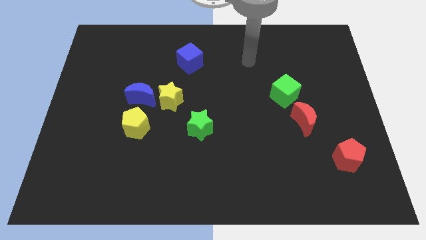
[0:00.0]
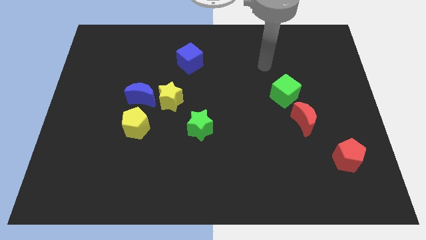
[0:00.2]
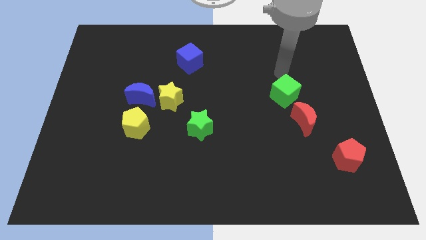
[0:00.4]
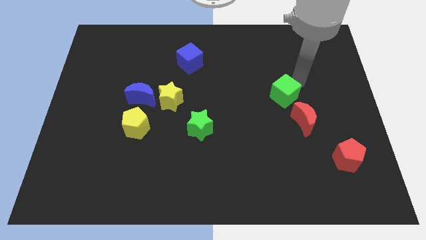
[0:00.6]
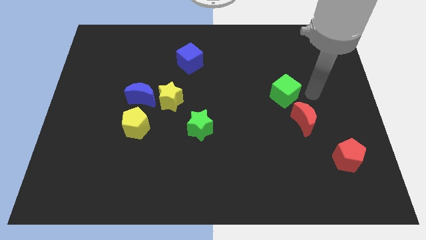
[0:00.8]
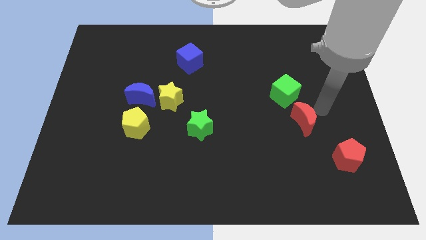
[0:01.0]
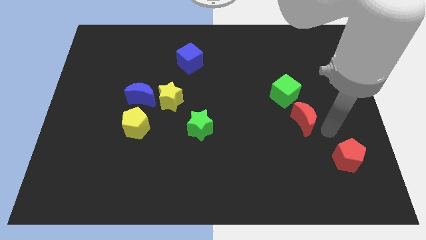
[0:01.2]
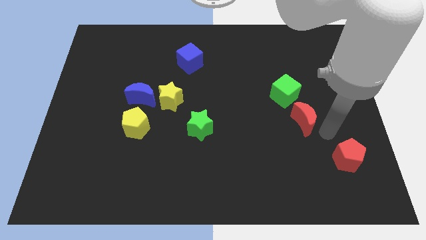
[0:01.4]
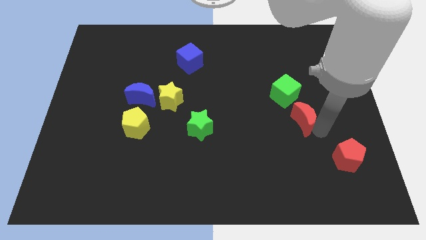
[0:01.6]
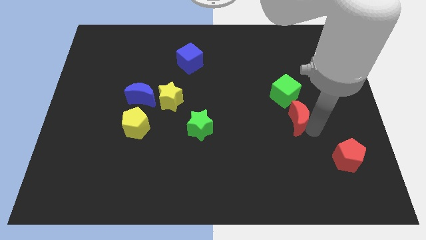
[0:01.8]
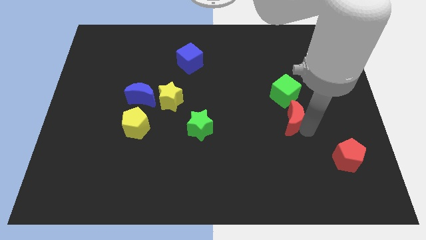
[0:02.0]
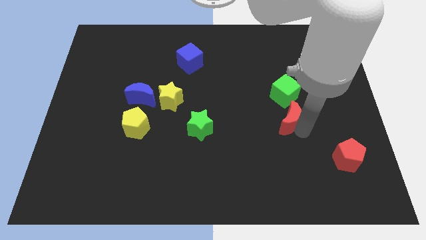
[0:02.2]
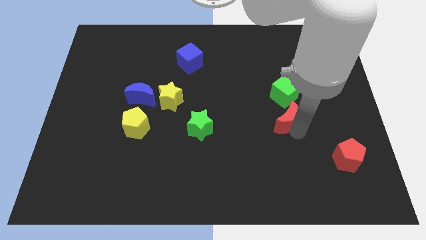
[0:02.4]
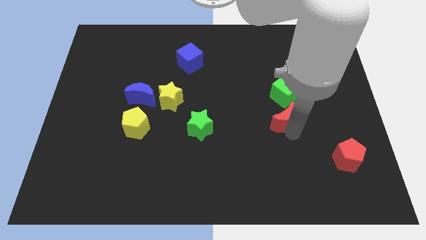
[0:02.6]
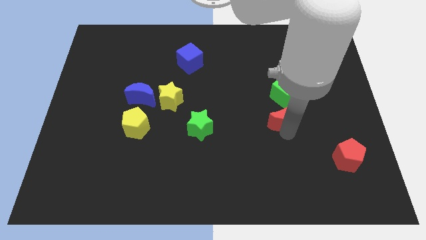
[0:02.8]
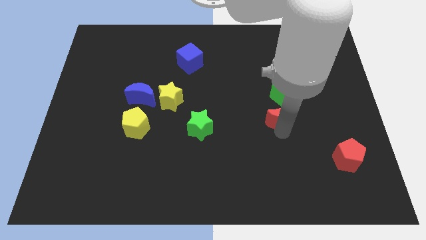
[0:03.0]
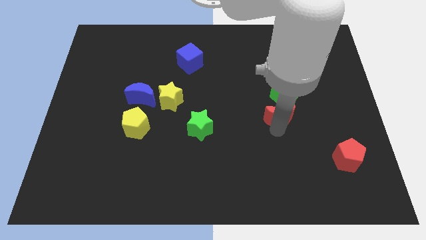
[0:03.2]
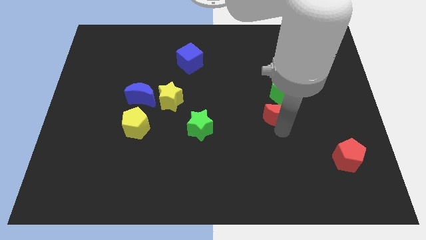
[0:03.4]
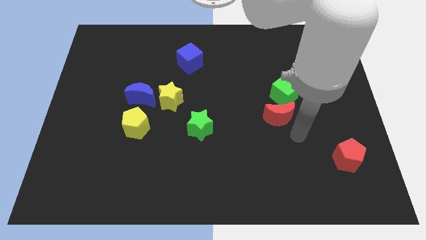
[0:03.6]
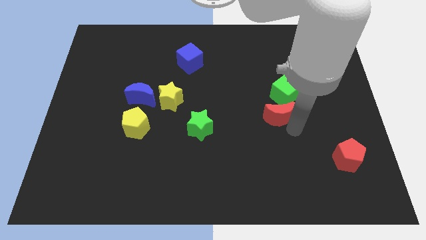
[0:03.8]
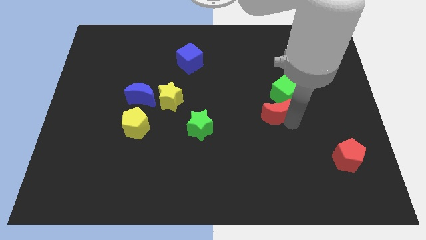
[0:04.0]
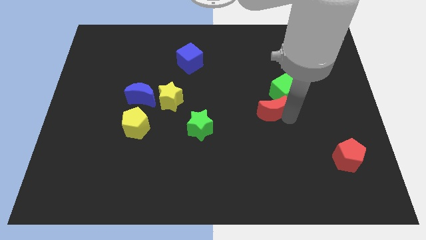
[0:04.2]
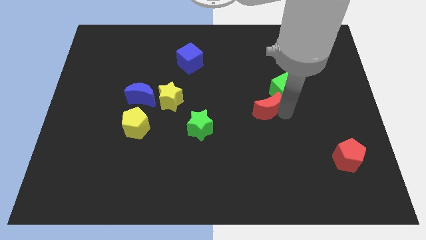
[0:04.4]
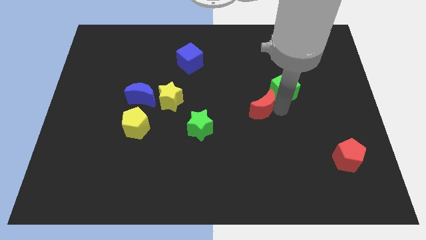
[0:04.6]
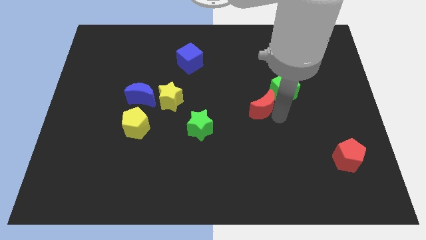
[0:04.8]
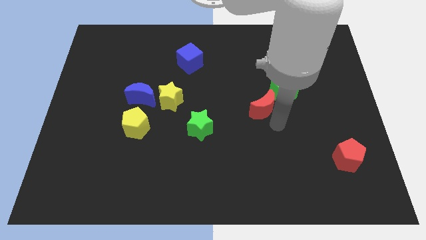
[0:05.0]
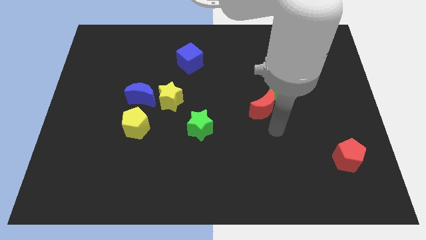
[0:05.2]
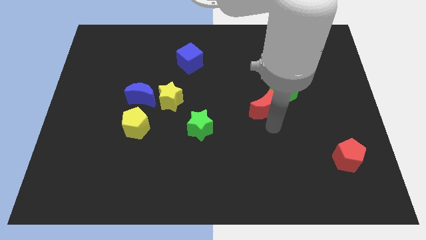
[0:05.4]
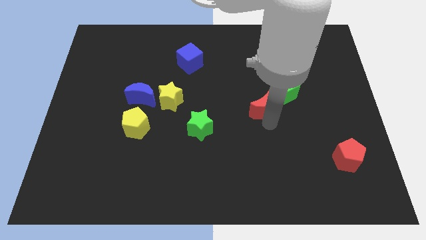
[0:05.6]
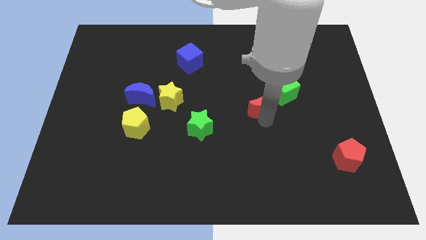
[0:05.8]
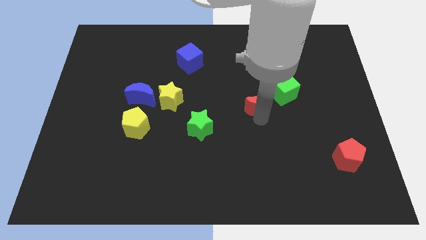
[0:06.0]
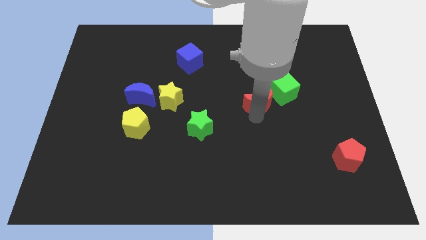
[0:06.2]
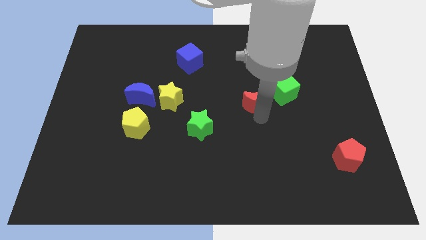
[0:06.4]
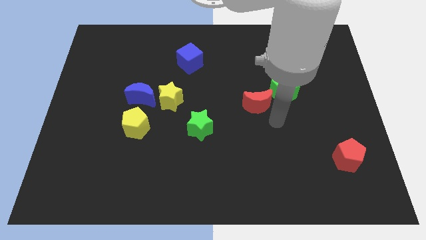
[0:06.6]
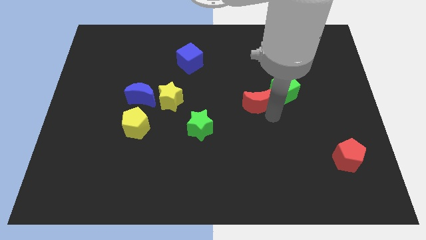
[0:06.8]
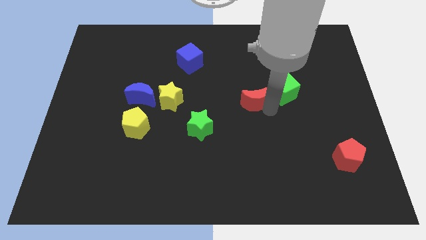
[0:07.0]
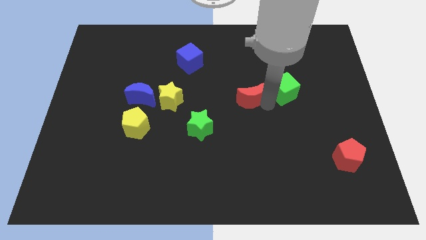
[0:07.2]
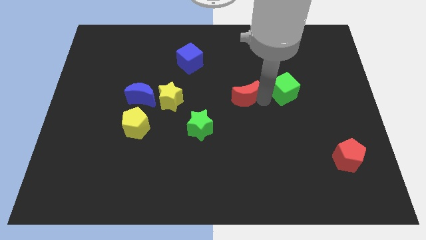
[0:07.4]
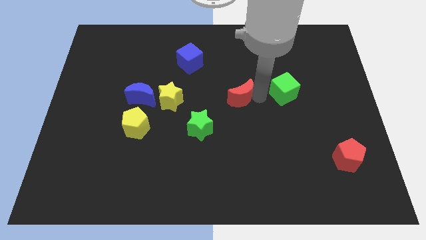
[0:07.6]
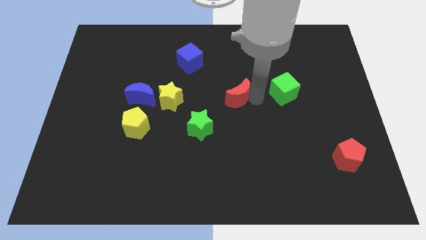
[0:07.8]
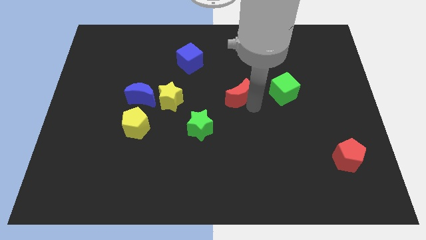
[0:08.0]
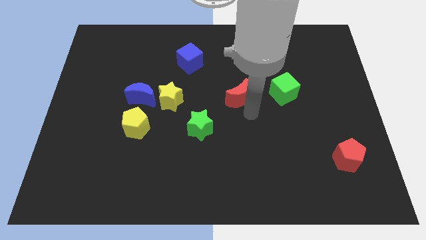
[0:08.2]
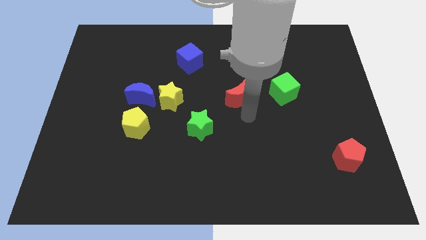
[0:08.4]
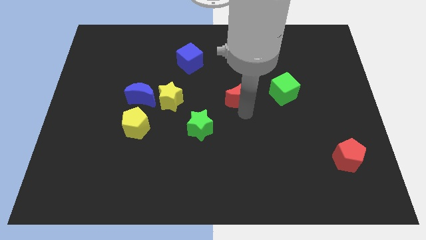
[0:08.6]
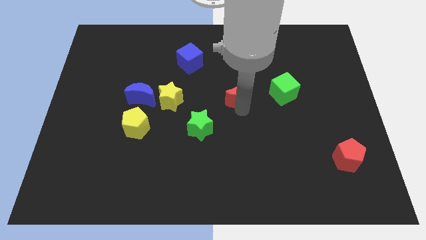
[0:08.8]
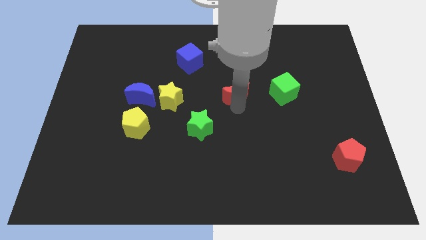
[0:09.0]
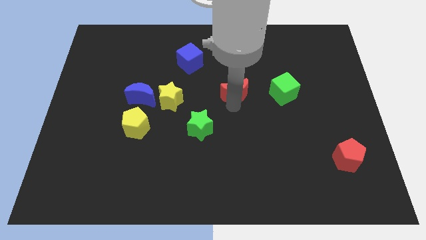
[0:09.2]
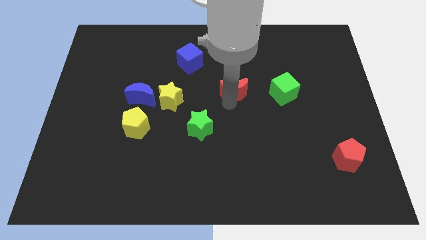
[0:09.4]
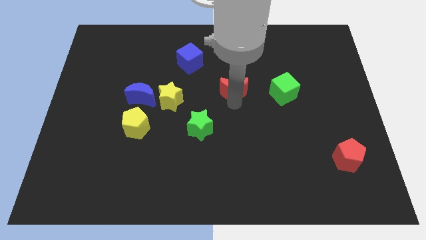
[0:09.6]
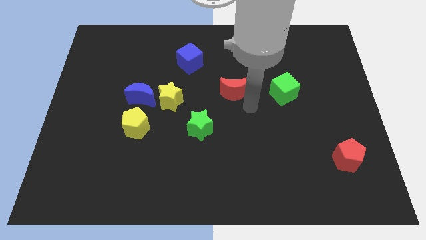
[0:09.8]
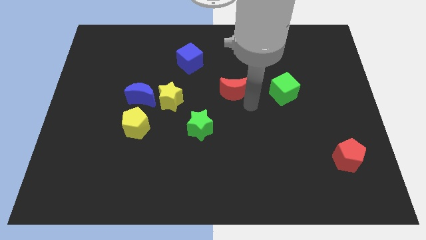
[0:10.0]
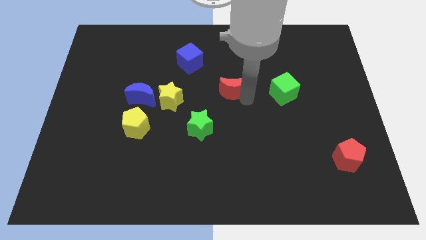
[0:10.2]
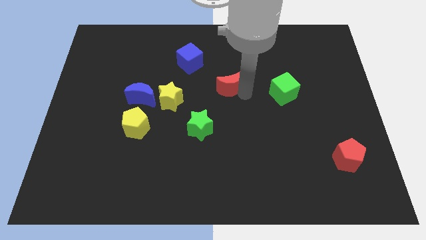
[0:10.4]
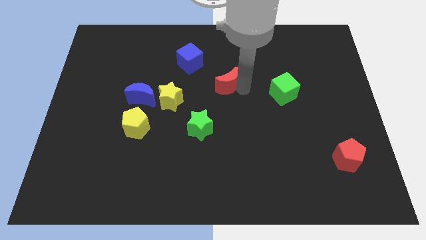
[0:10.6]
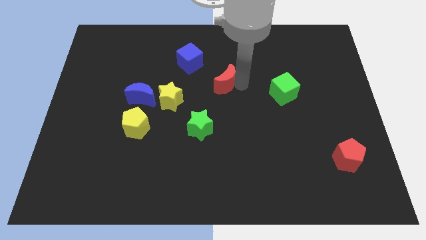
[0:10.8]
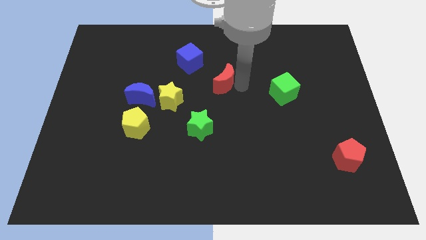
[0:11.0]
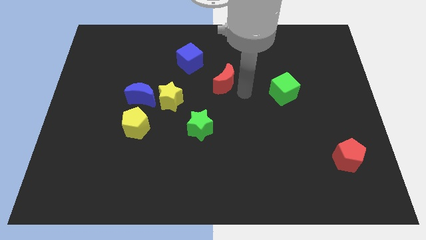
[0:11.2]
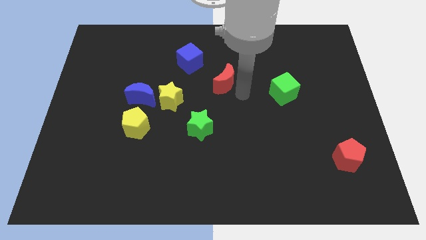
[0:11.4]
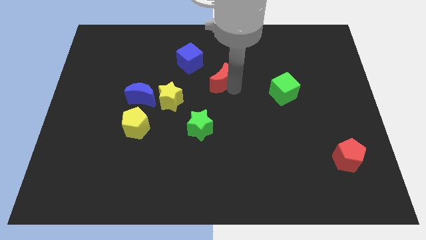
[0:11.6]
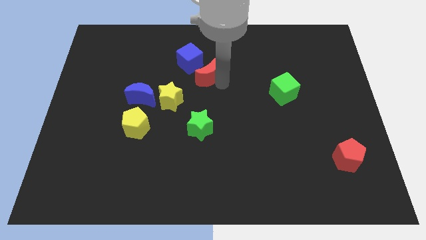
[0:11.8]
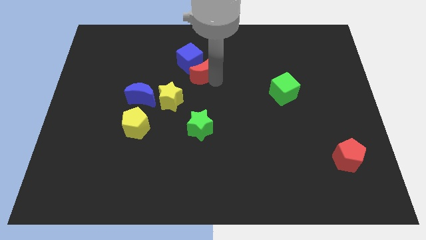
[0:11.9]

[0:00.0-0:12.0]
push the red moon to the blue cube

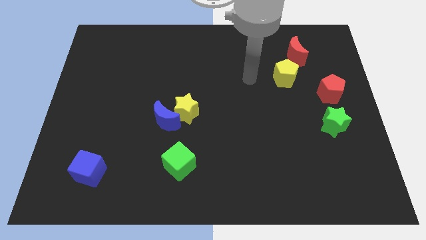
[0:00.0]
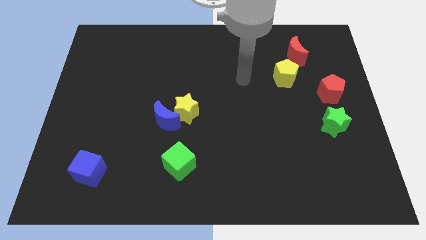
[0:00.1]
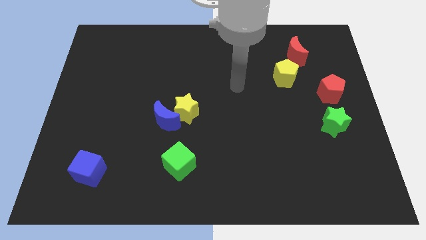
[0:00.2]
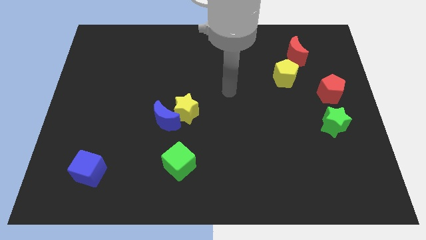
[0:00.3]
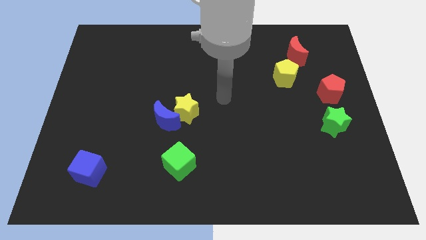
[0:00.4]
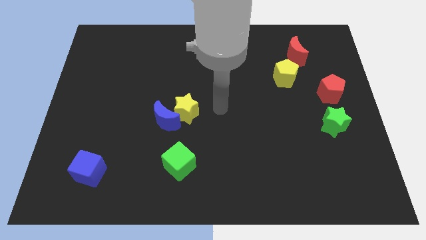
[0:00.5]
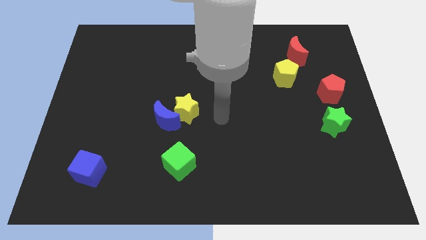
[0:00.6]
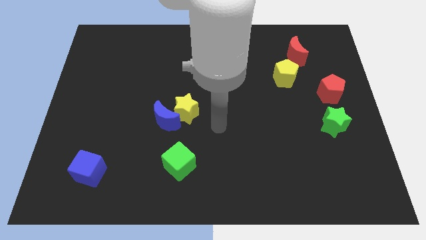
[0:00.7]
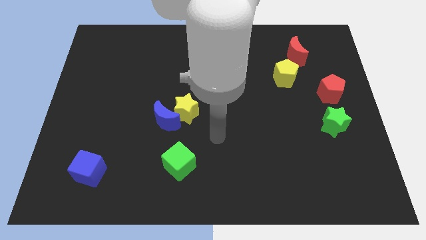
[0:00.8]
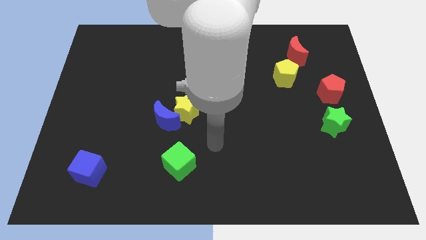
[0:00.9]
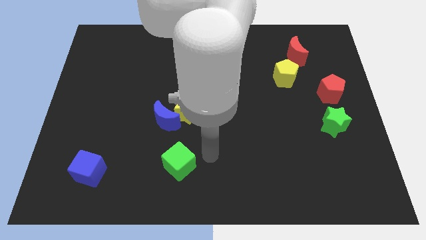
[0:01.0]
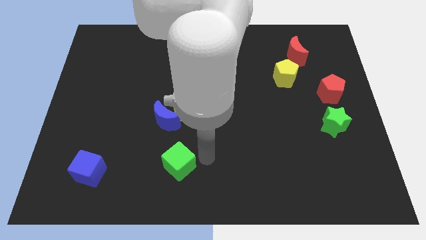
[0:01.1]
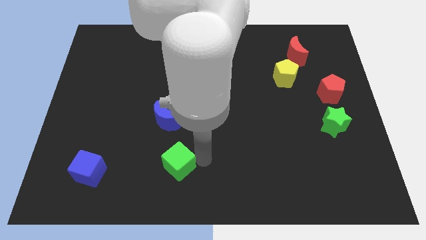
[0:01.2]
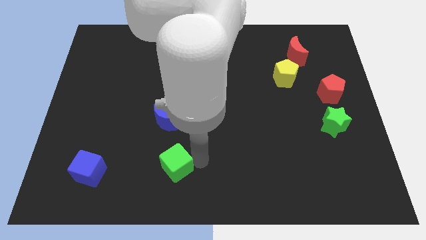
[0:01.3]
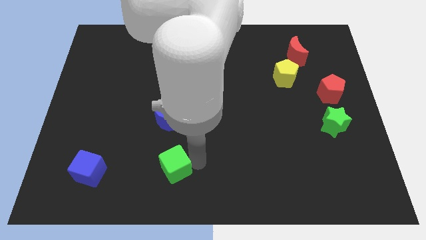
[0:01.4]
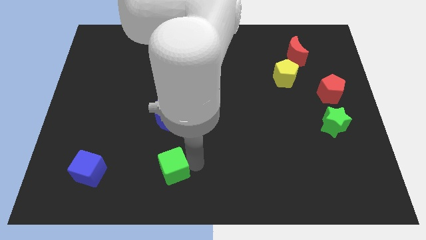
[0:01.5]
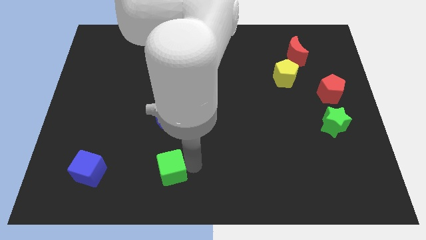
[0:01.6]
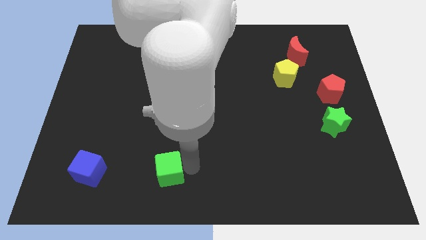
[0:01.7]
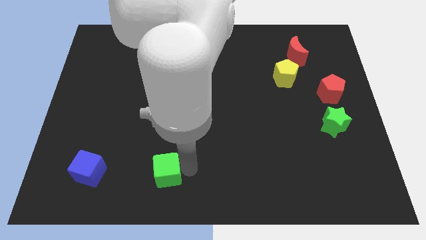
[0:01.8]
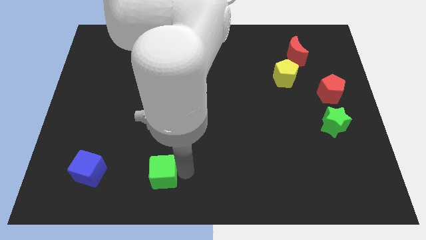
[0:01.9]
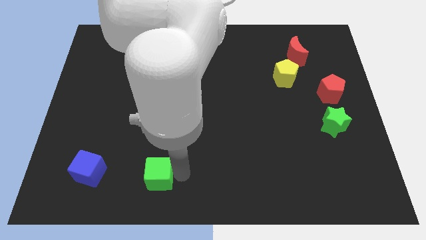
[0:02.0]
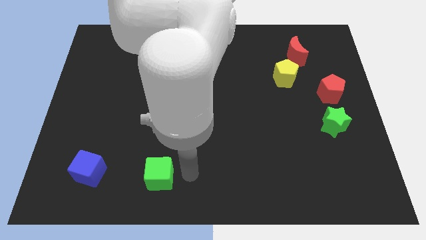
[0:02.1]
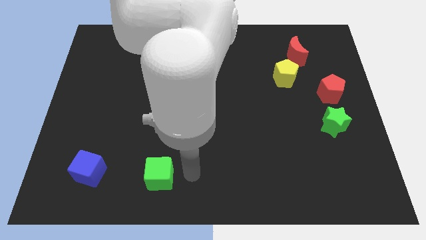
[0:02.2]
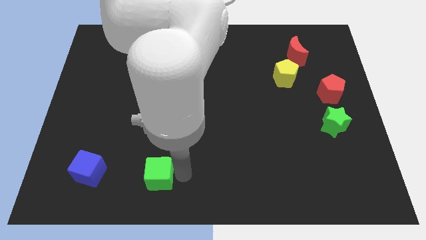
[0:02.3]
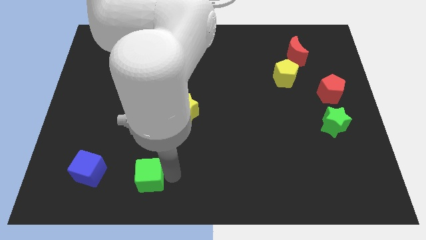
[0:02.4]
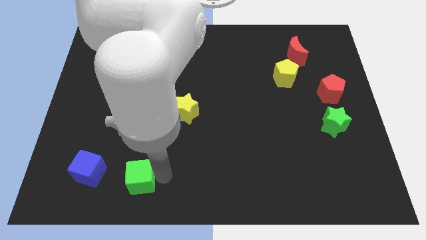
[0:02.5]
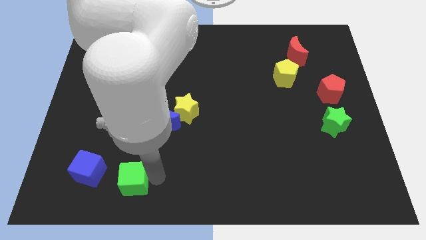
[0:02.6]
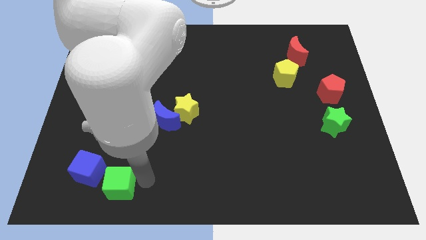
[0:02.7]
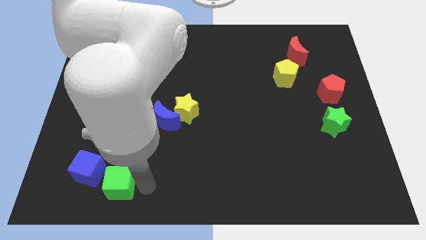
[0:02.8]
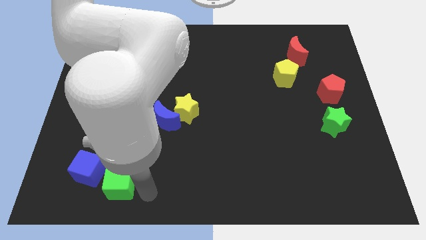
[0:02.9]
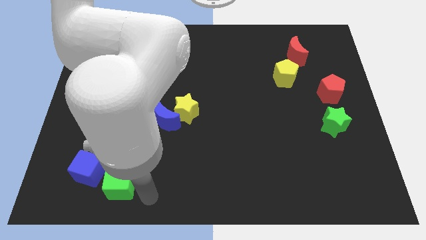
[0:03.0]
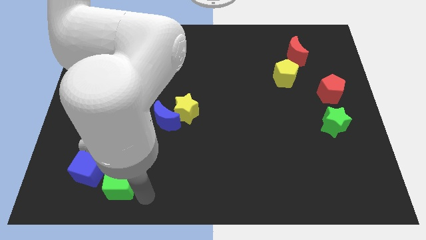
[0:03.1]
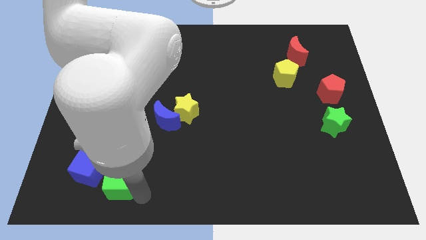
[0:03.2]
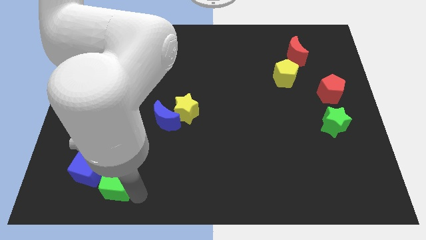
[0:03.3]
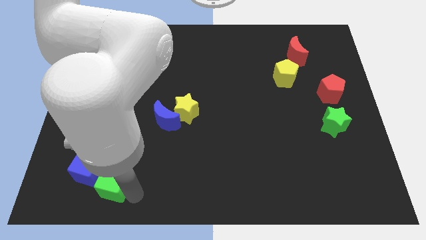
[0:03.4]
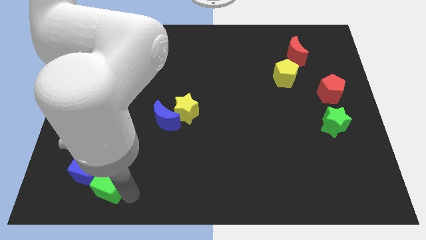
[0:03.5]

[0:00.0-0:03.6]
push the green cube next to the blue cube
